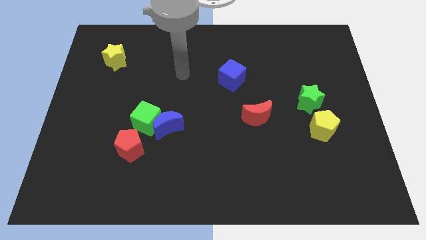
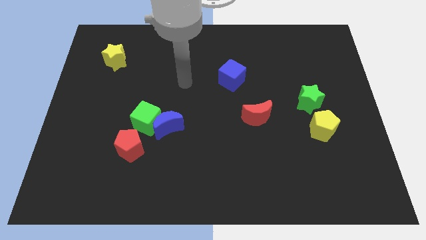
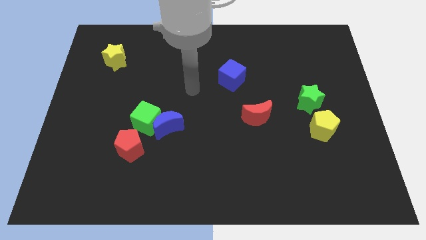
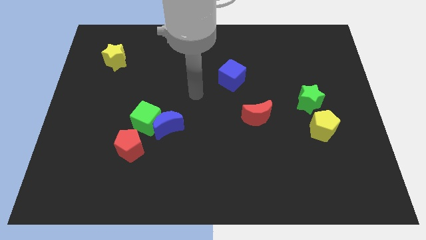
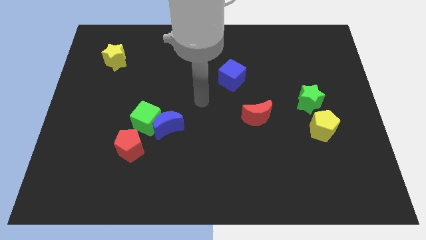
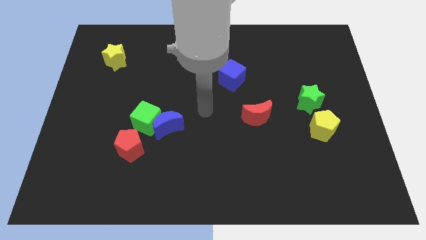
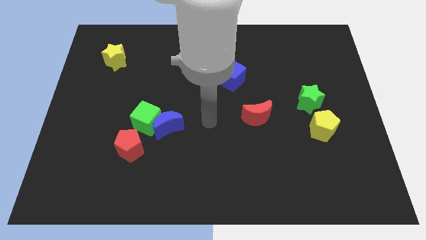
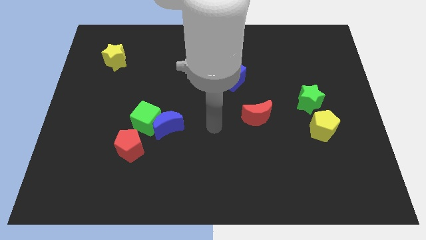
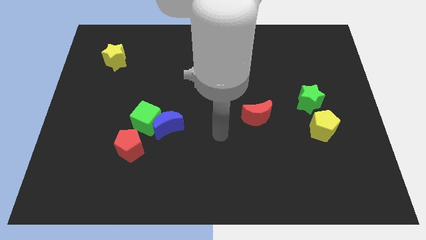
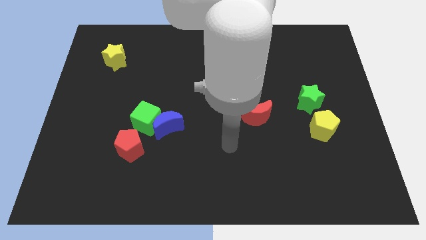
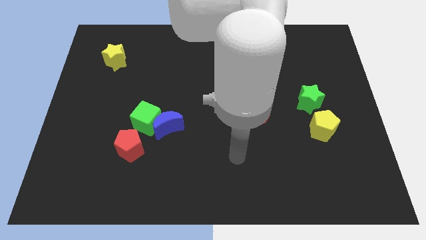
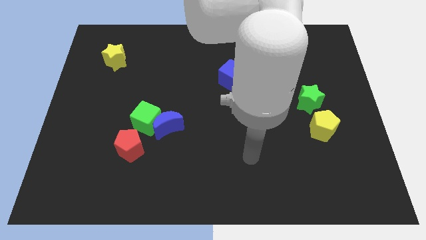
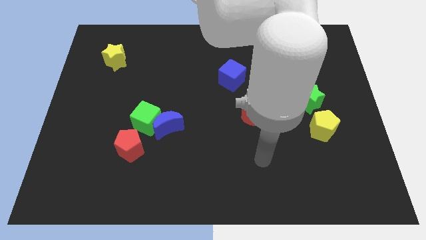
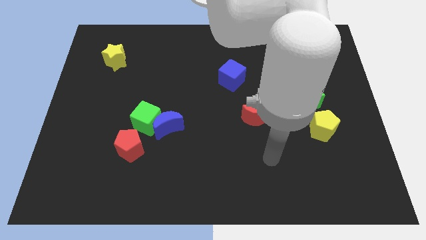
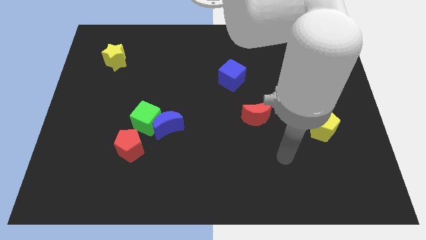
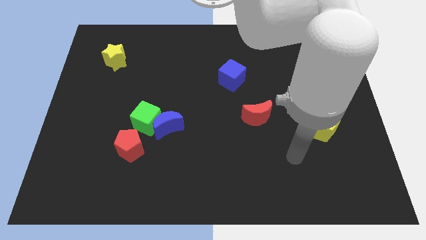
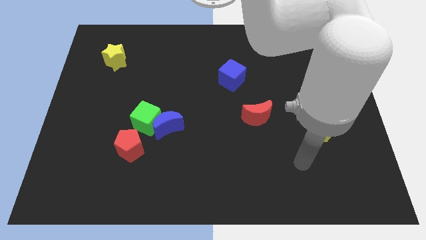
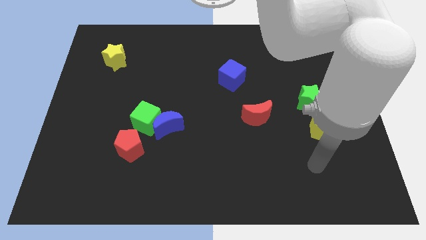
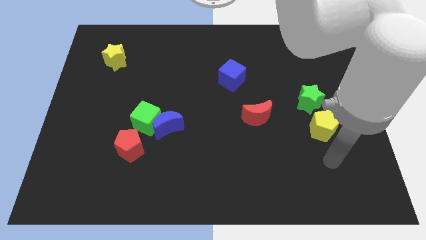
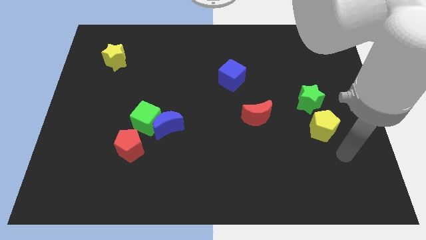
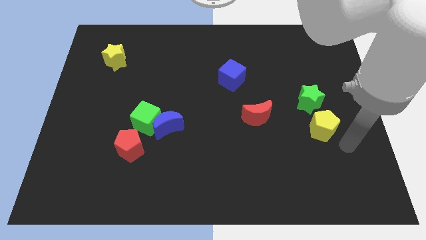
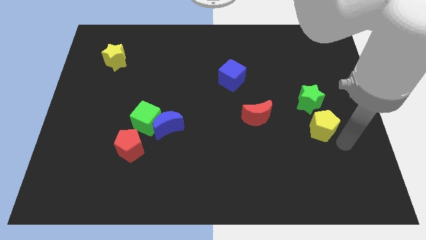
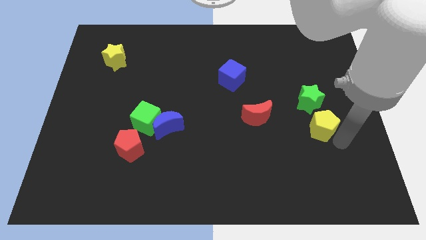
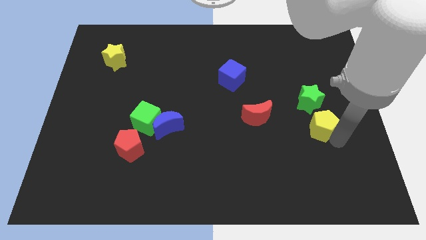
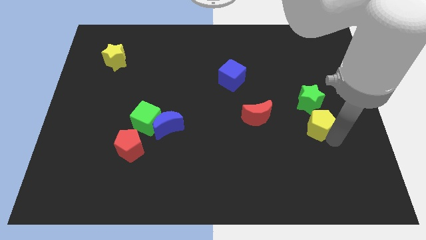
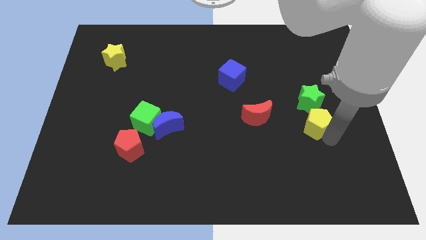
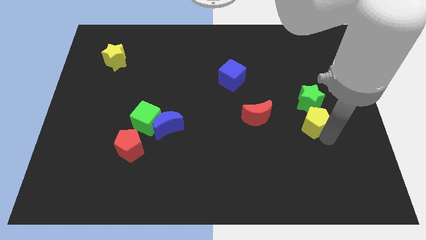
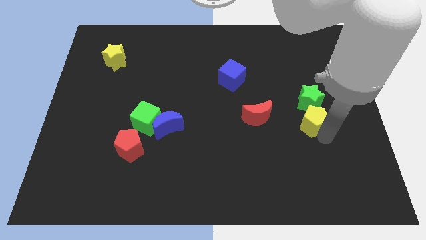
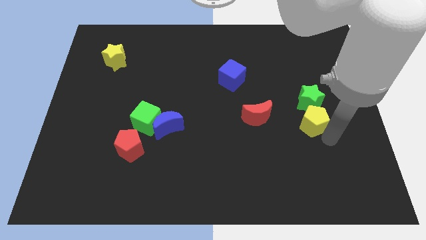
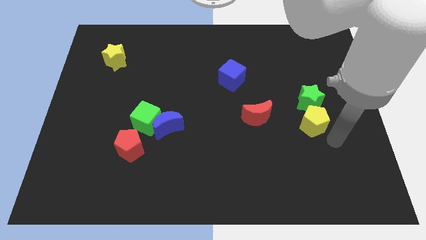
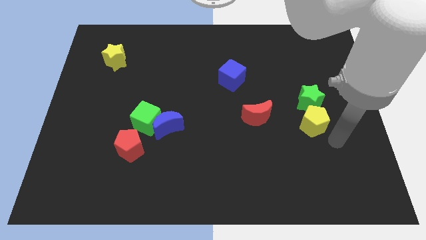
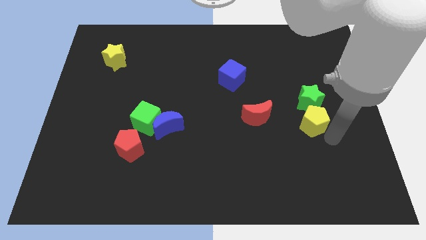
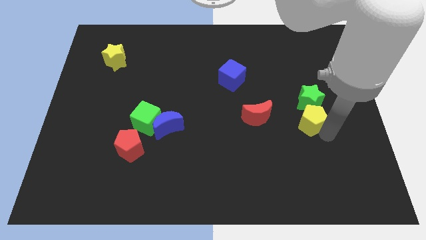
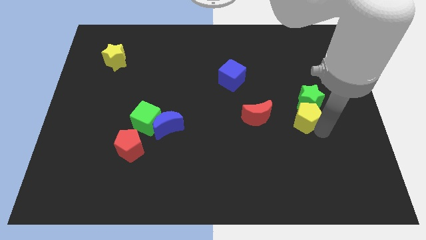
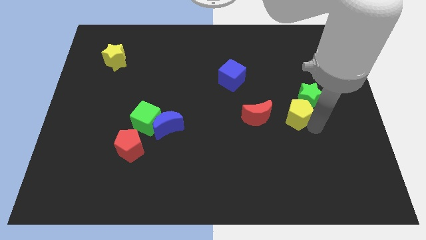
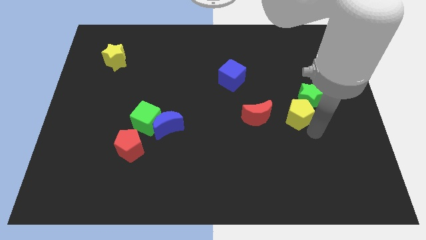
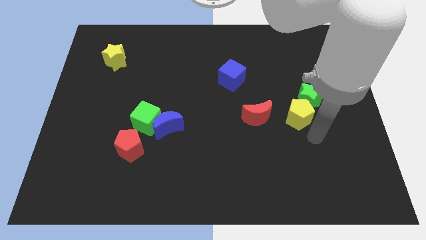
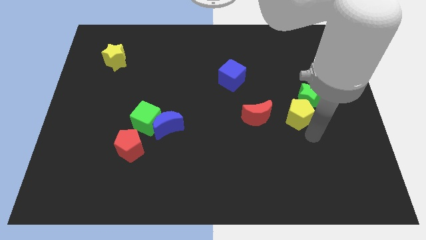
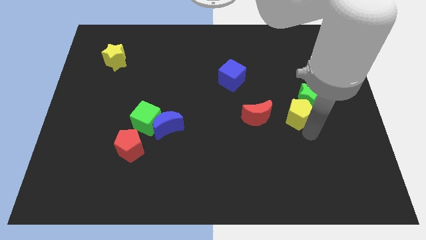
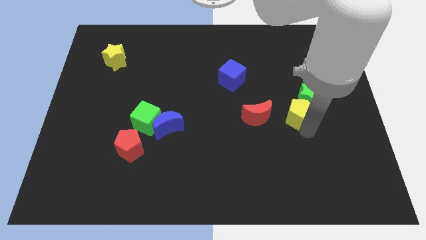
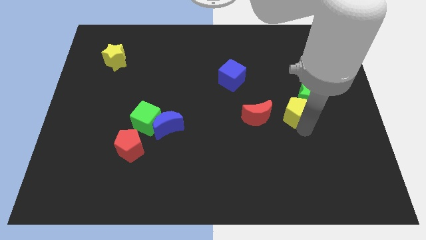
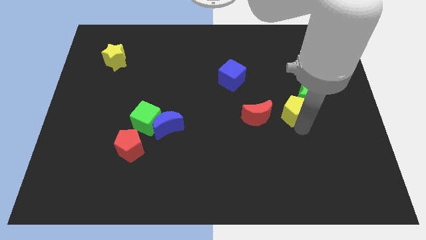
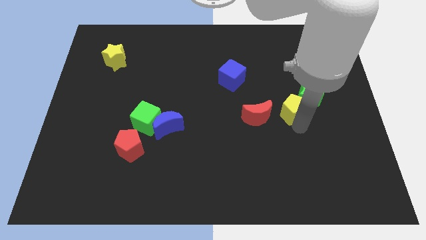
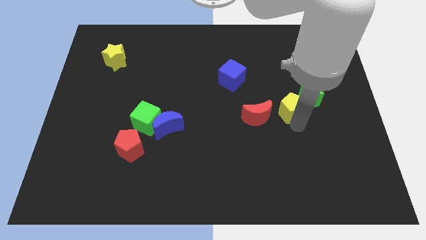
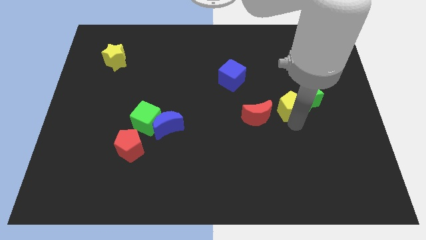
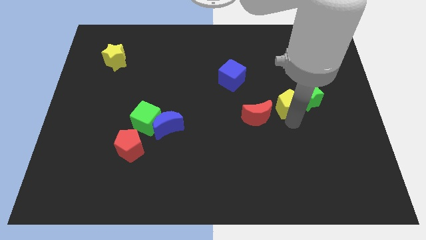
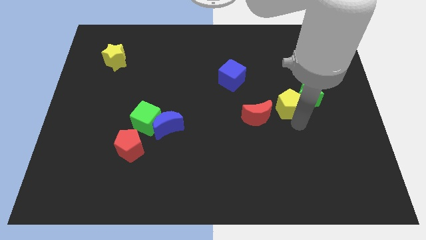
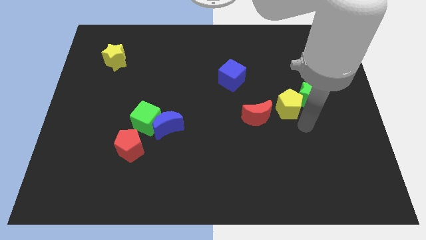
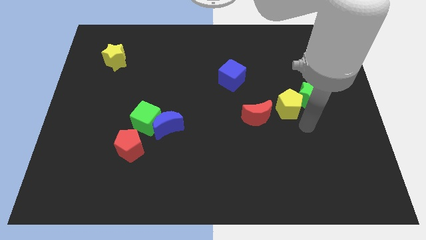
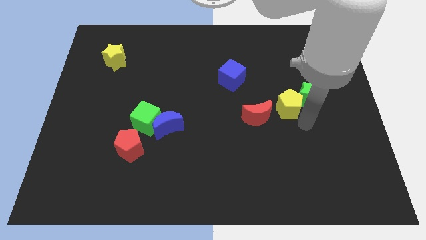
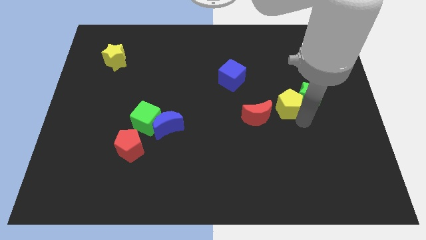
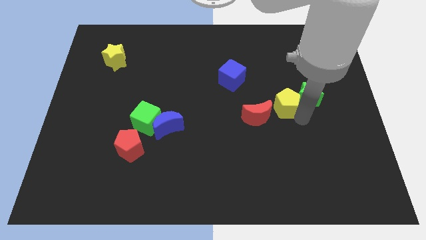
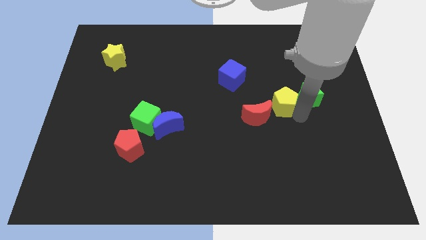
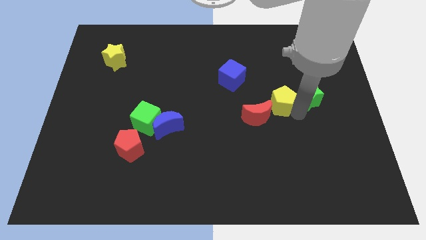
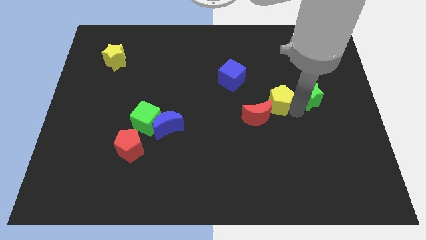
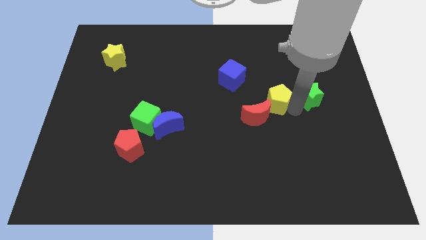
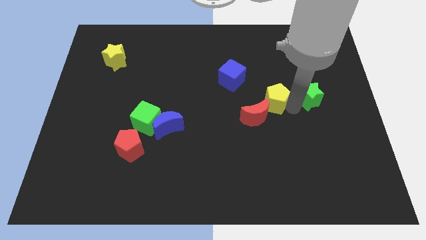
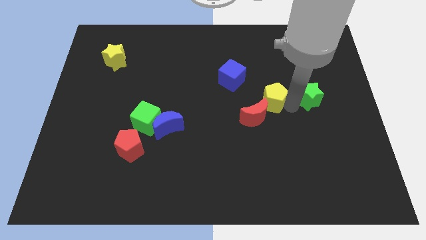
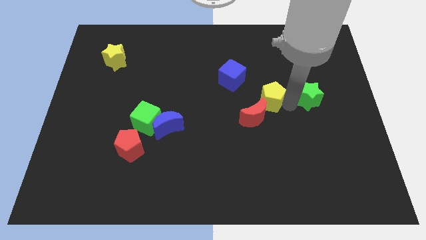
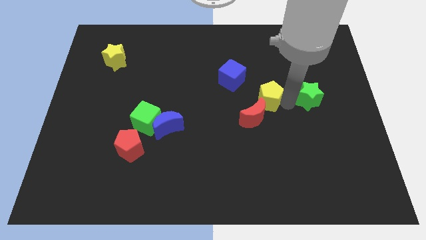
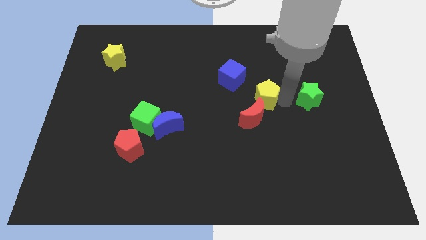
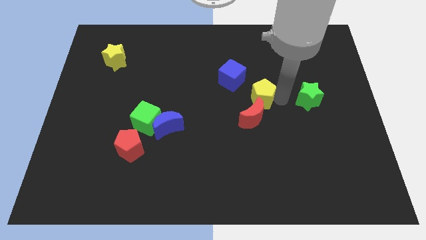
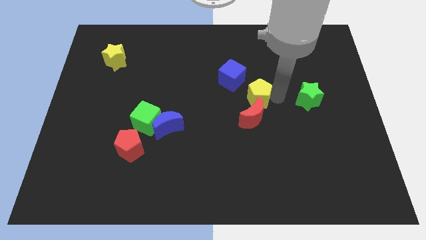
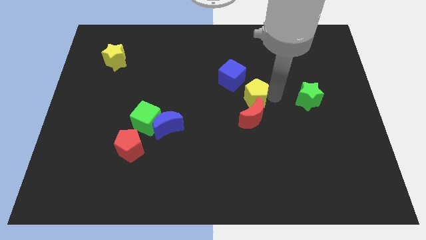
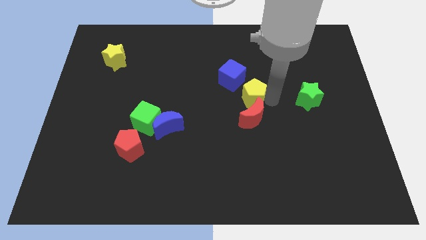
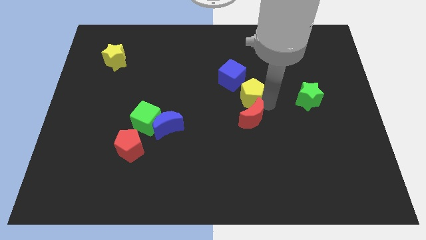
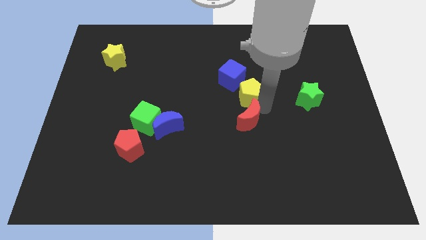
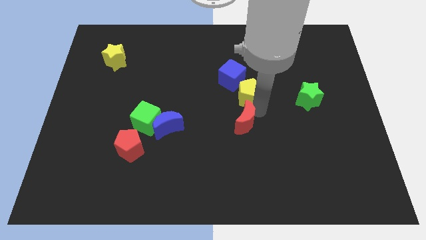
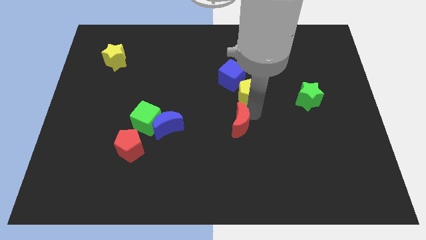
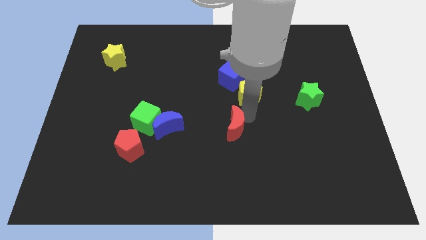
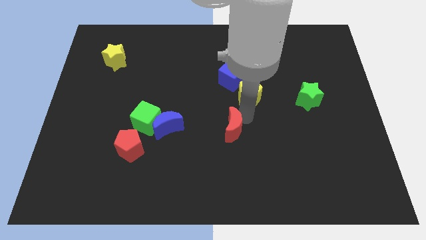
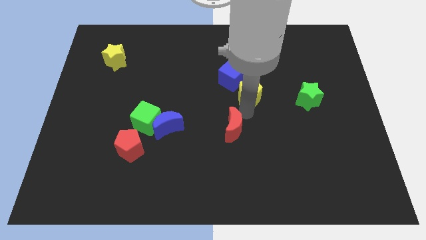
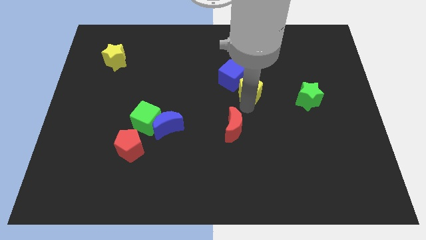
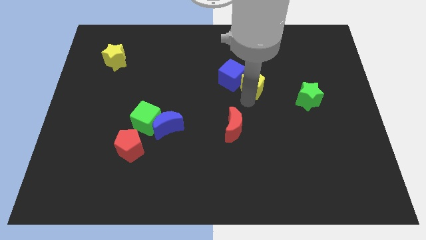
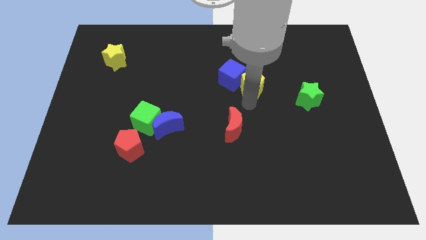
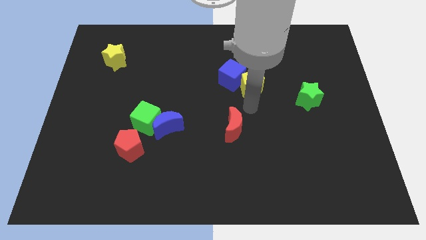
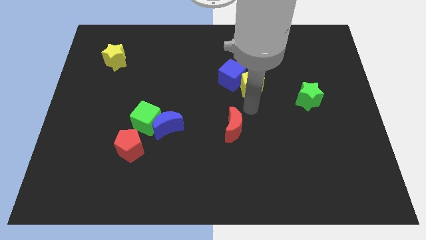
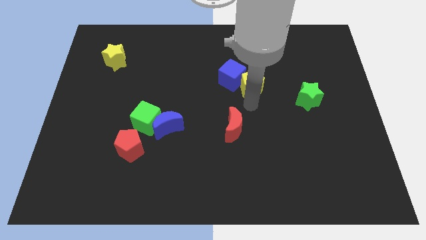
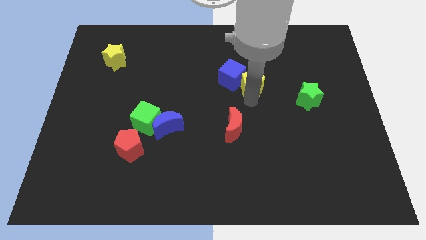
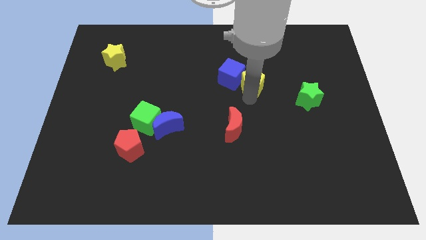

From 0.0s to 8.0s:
slide the yellow pentagon up and then to the left
